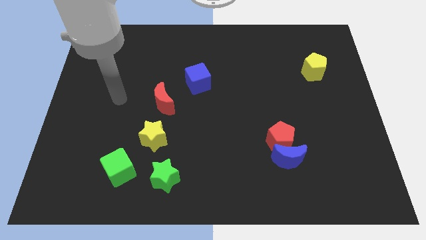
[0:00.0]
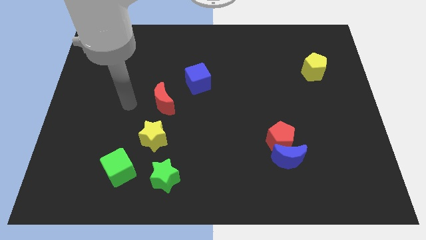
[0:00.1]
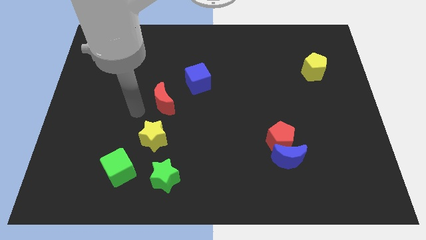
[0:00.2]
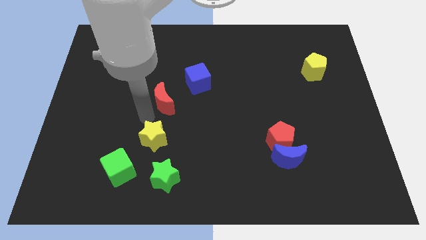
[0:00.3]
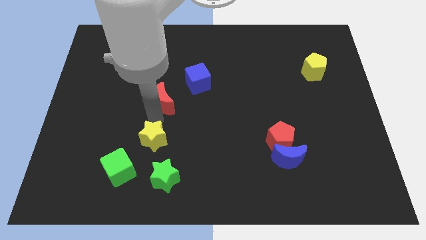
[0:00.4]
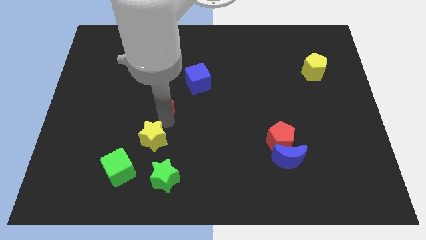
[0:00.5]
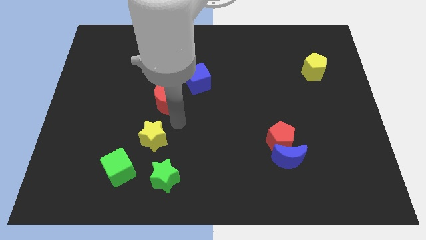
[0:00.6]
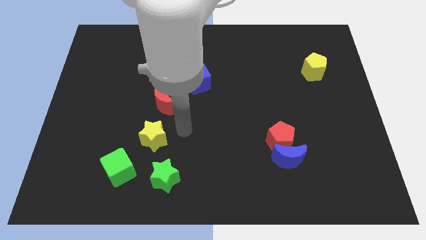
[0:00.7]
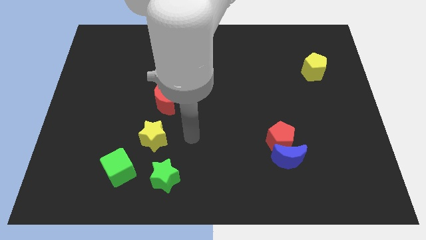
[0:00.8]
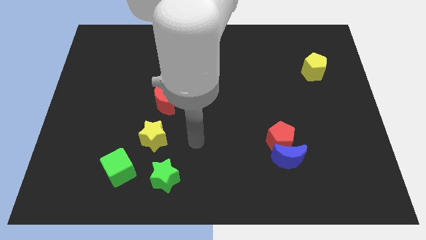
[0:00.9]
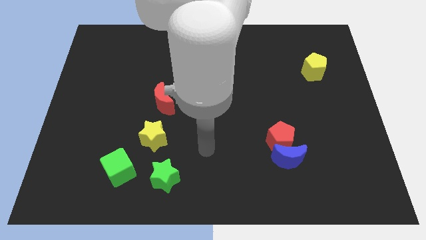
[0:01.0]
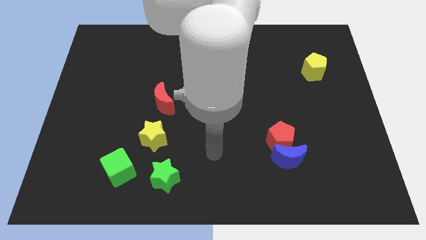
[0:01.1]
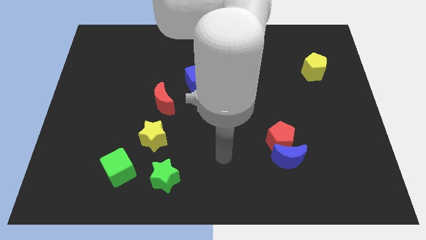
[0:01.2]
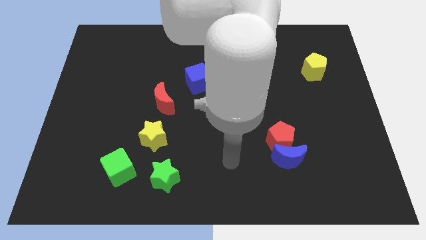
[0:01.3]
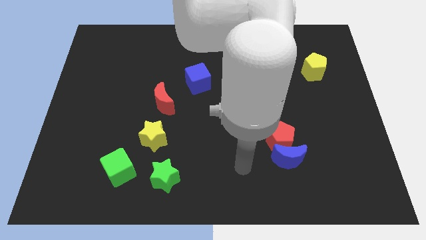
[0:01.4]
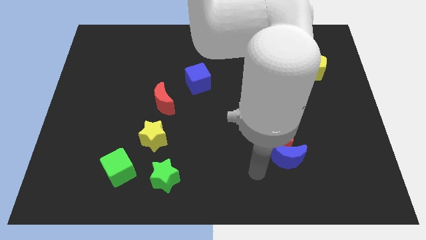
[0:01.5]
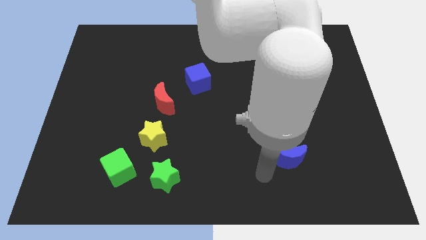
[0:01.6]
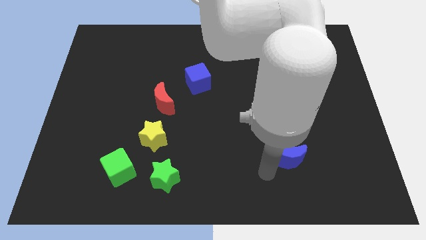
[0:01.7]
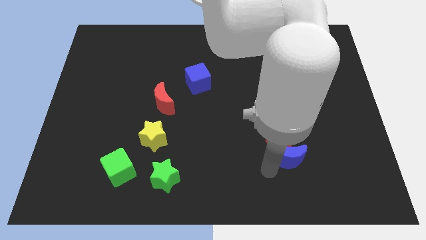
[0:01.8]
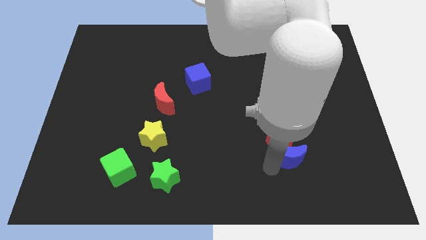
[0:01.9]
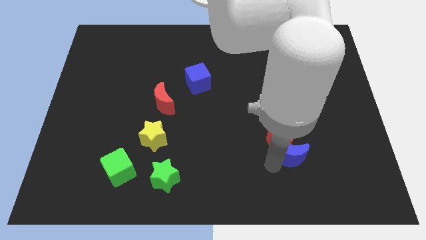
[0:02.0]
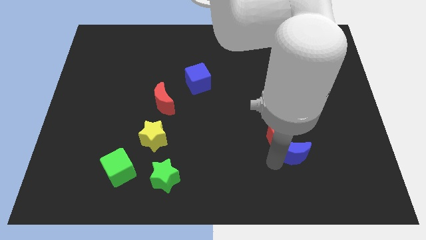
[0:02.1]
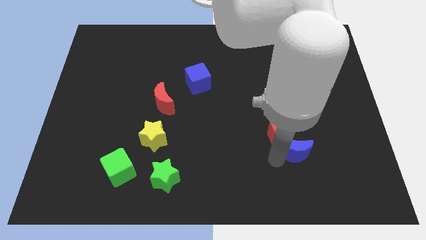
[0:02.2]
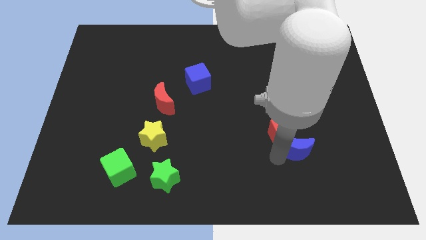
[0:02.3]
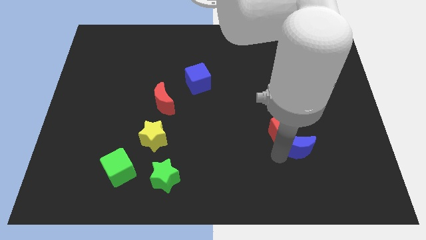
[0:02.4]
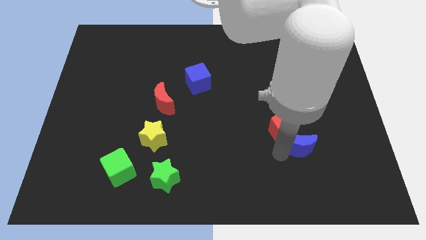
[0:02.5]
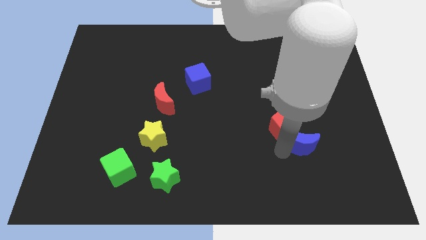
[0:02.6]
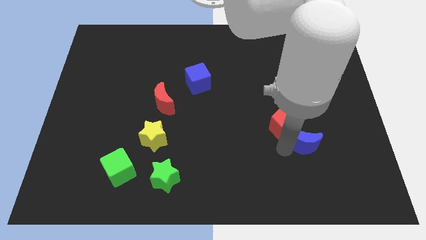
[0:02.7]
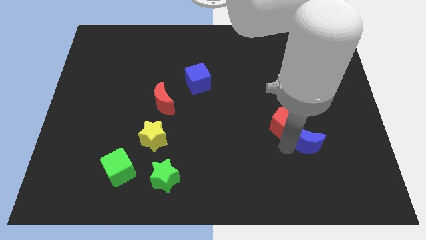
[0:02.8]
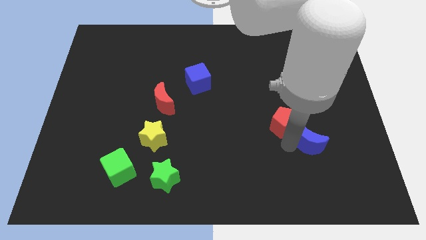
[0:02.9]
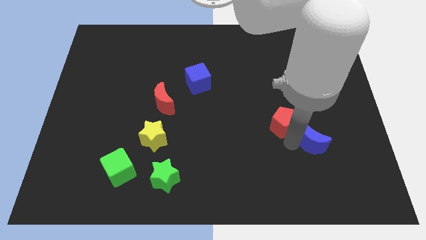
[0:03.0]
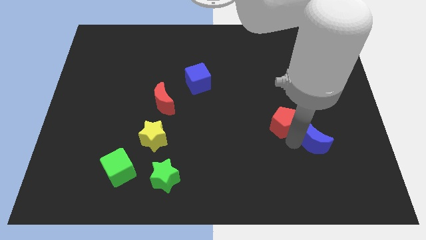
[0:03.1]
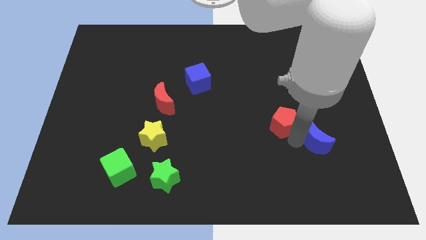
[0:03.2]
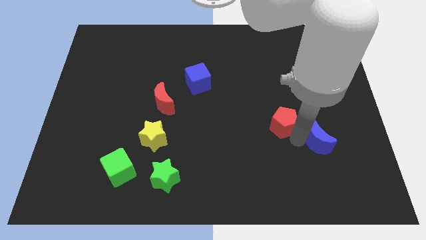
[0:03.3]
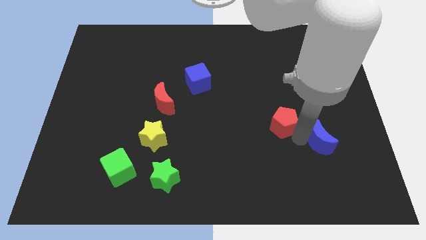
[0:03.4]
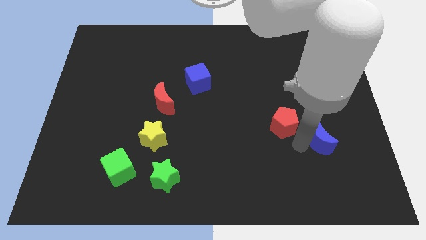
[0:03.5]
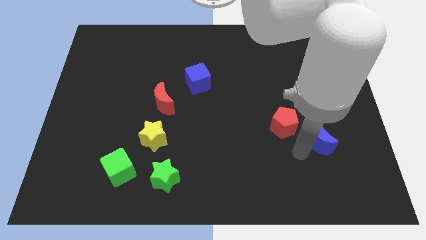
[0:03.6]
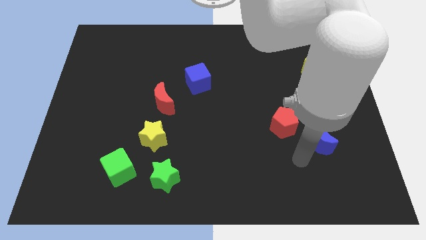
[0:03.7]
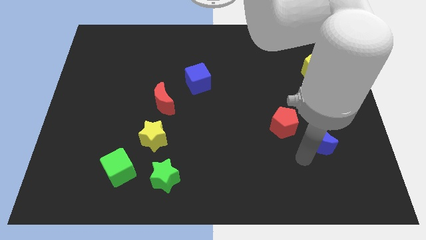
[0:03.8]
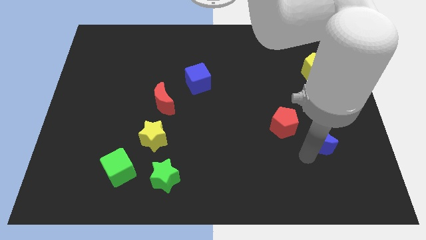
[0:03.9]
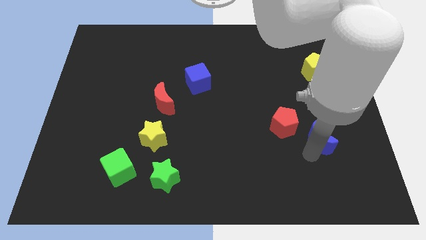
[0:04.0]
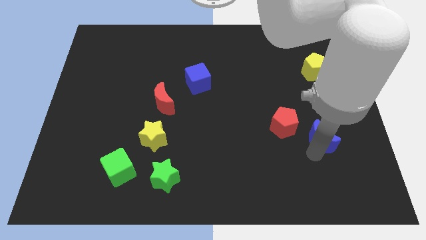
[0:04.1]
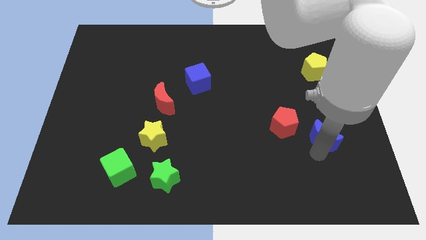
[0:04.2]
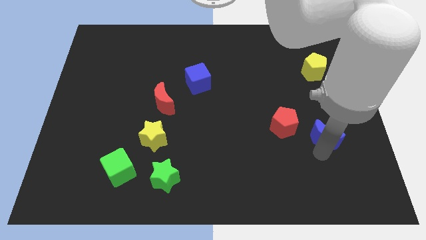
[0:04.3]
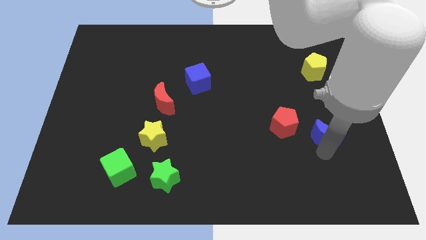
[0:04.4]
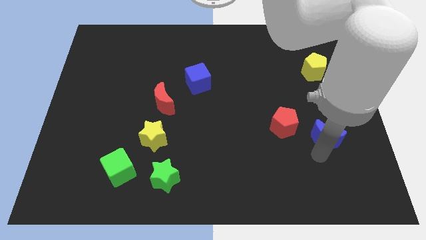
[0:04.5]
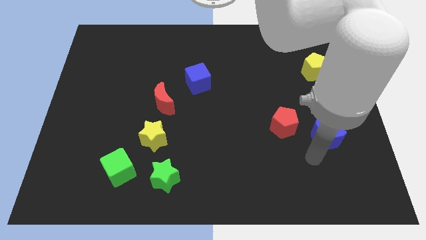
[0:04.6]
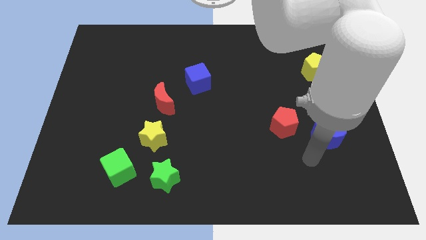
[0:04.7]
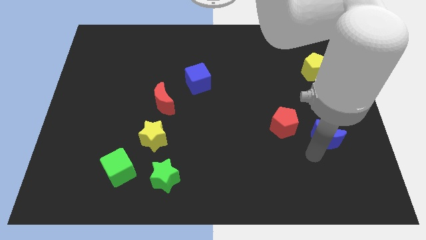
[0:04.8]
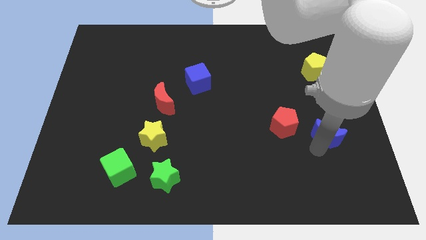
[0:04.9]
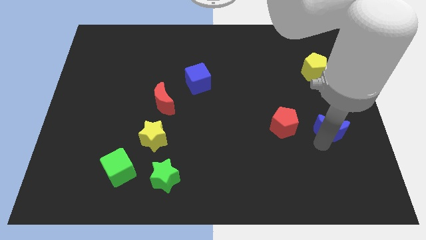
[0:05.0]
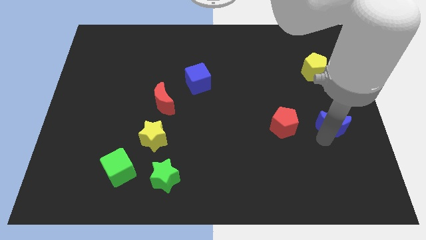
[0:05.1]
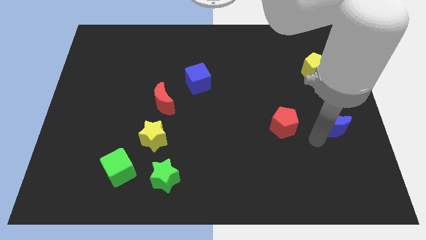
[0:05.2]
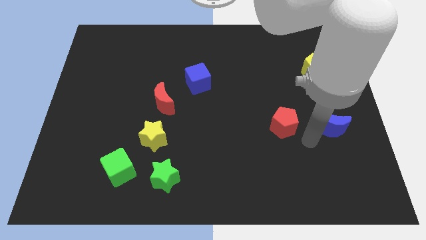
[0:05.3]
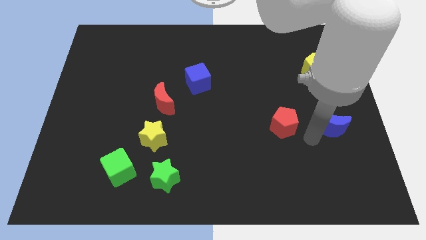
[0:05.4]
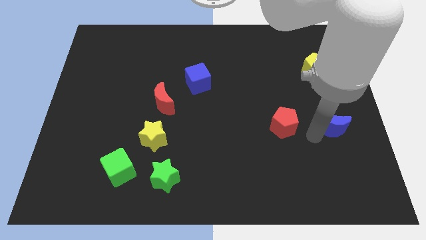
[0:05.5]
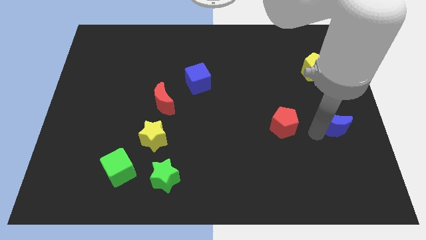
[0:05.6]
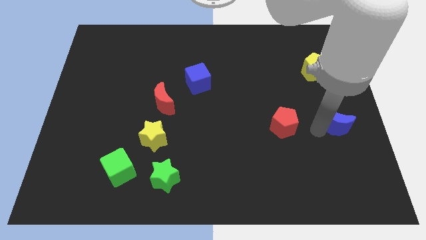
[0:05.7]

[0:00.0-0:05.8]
put the blue moon to the right side

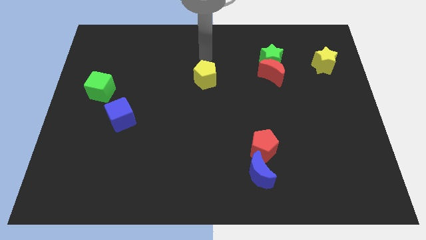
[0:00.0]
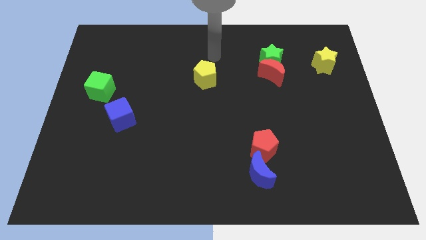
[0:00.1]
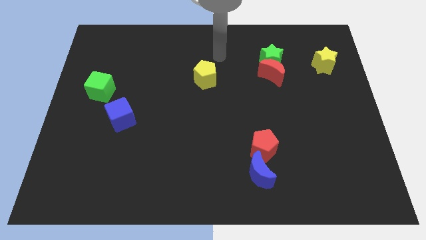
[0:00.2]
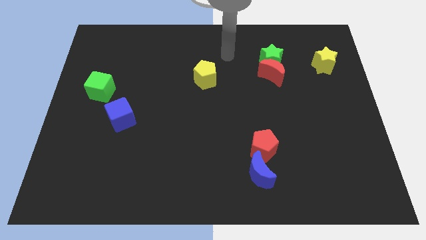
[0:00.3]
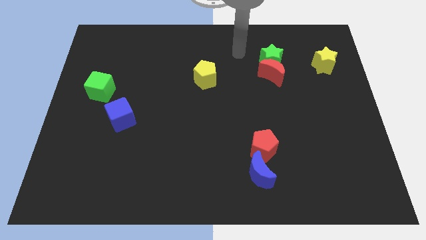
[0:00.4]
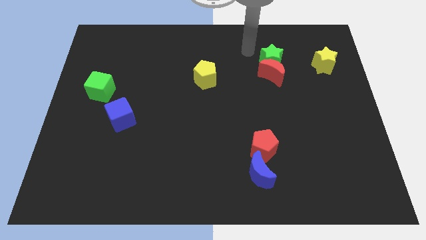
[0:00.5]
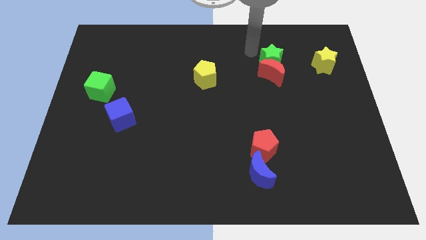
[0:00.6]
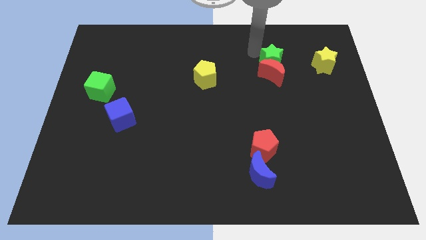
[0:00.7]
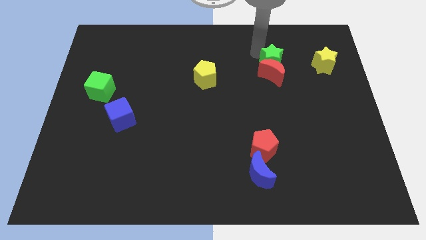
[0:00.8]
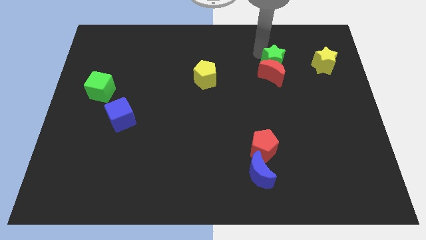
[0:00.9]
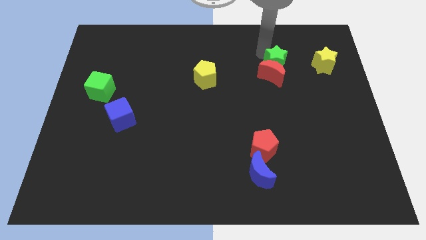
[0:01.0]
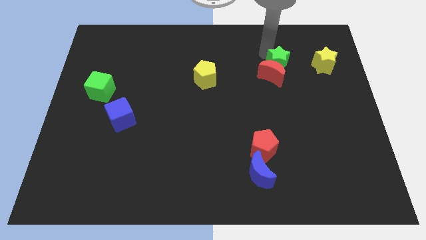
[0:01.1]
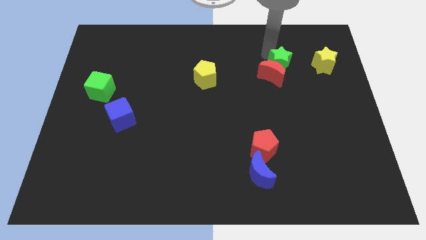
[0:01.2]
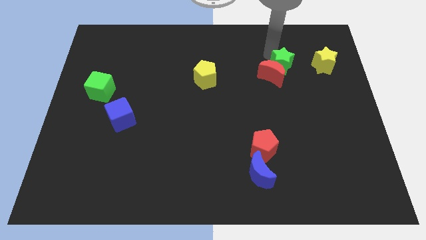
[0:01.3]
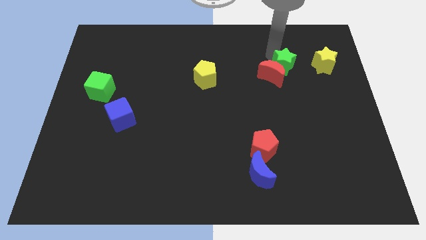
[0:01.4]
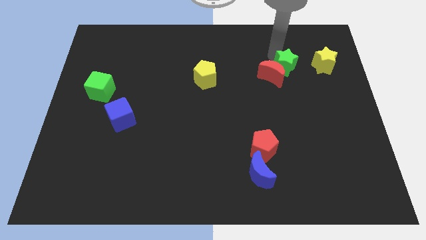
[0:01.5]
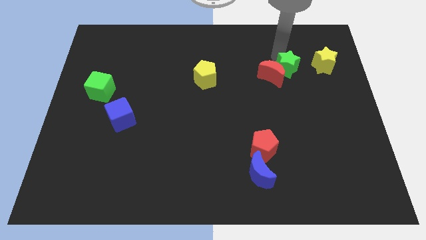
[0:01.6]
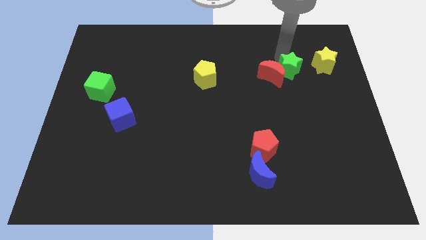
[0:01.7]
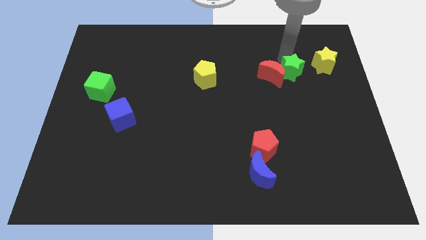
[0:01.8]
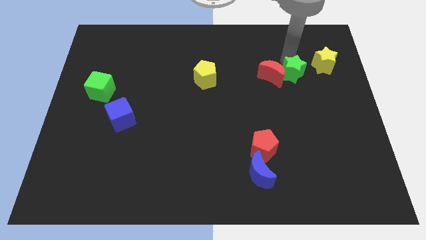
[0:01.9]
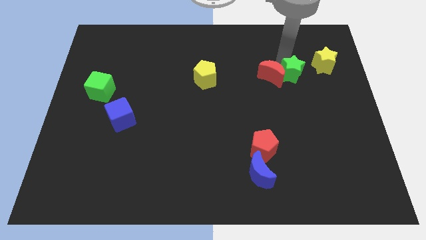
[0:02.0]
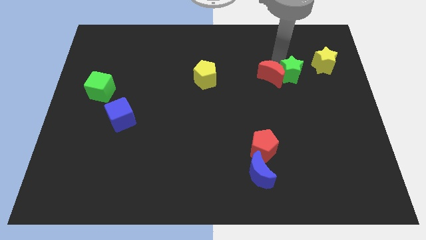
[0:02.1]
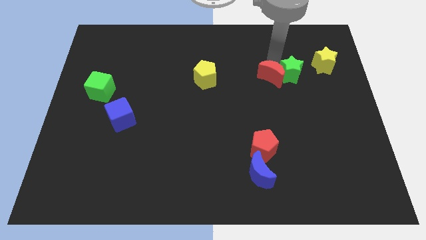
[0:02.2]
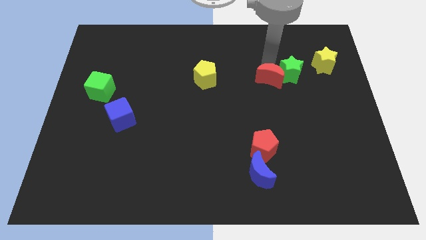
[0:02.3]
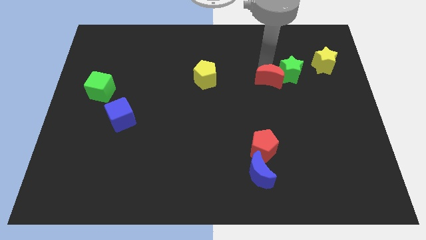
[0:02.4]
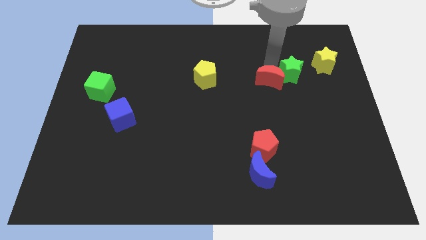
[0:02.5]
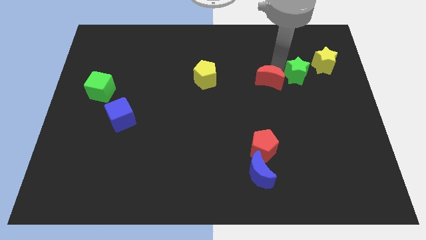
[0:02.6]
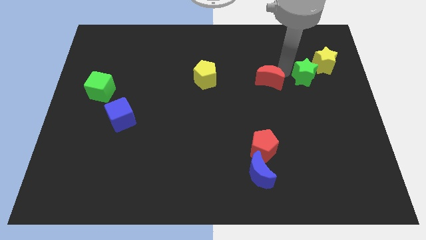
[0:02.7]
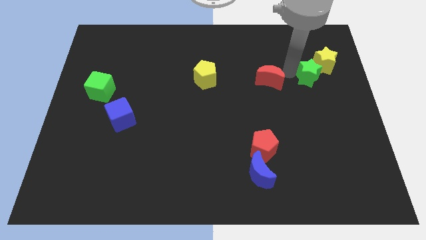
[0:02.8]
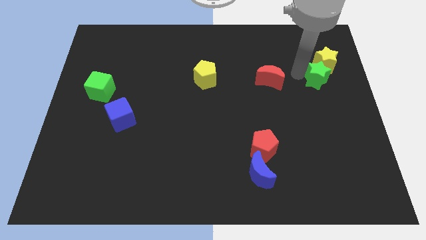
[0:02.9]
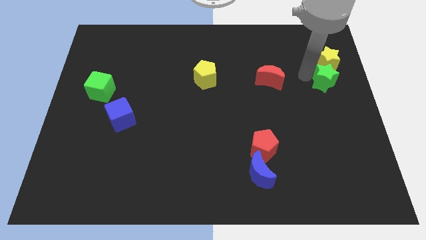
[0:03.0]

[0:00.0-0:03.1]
slide the green star to the right side
